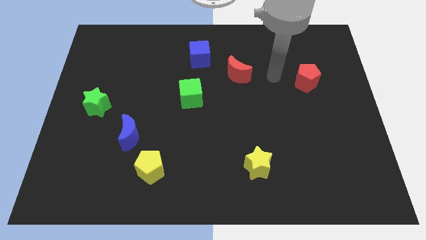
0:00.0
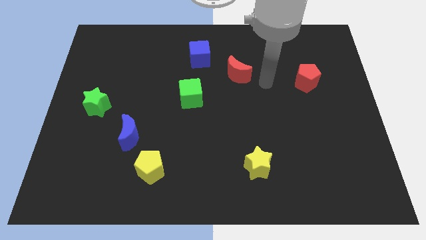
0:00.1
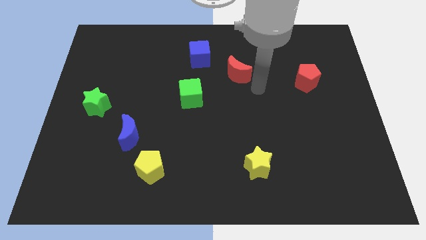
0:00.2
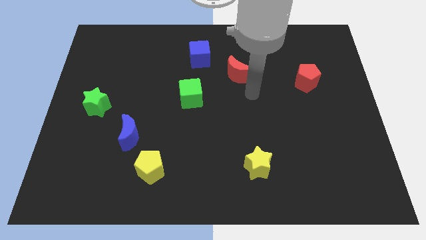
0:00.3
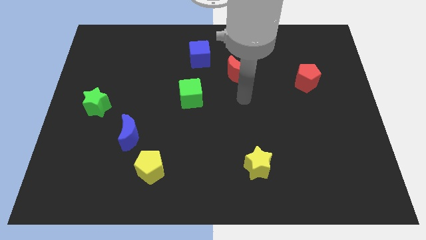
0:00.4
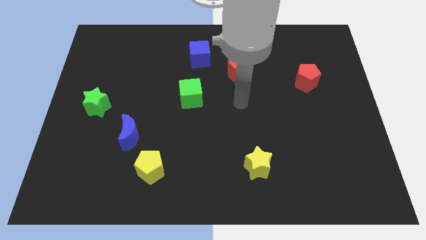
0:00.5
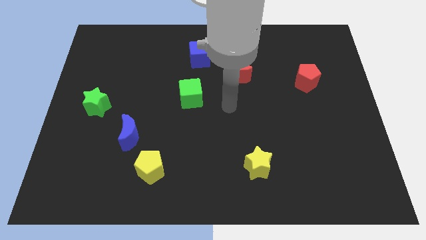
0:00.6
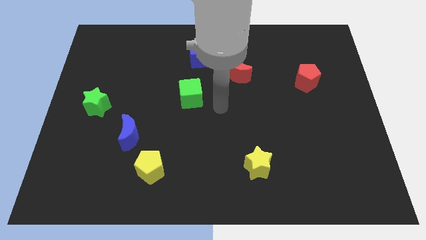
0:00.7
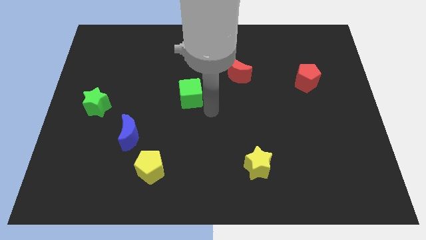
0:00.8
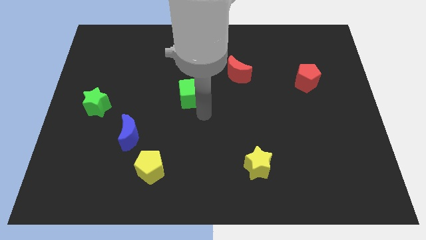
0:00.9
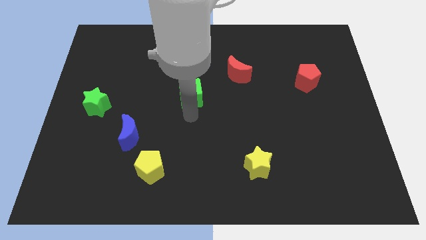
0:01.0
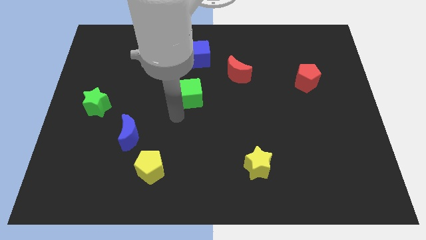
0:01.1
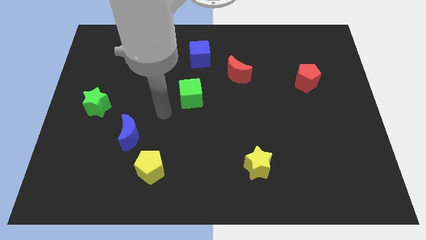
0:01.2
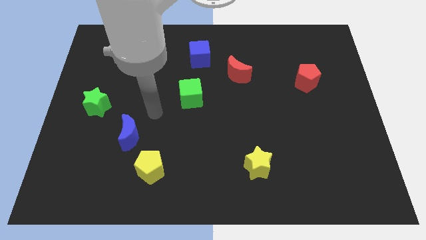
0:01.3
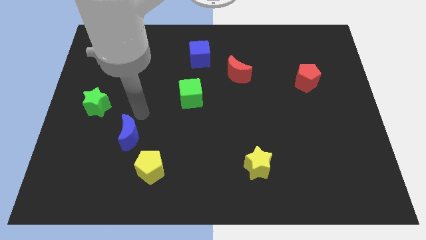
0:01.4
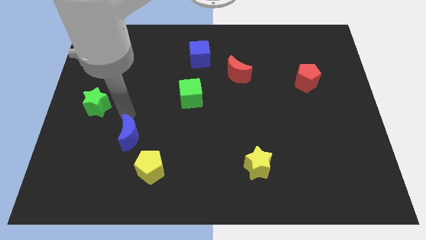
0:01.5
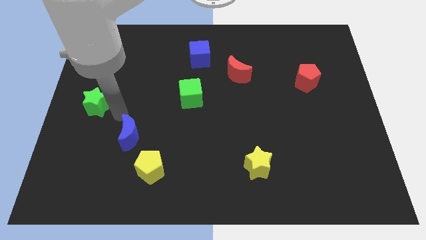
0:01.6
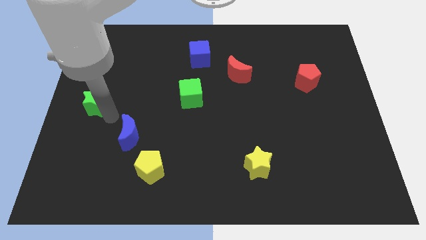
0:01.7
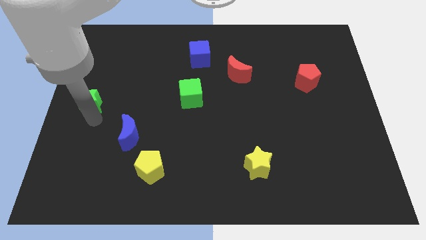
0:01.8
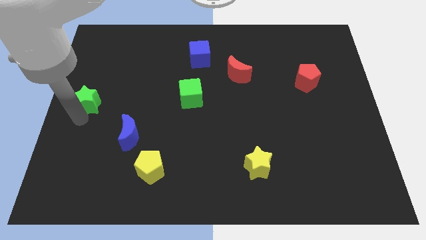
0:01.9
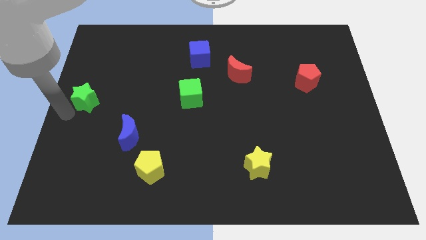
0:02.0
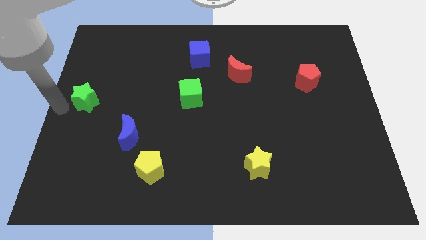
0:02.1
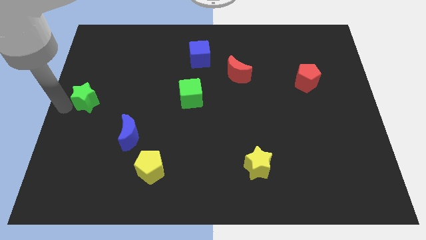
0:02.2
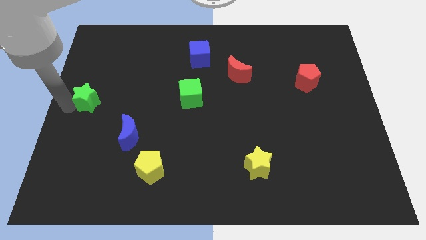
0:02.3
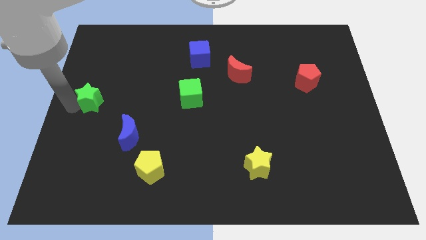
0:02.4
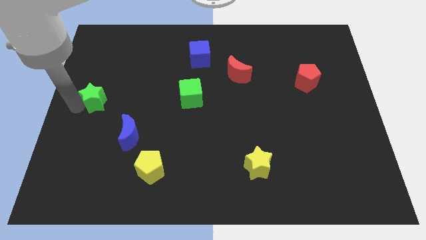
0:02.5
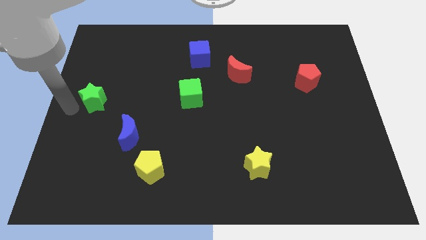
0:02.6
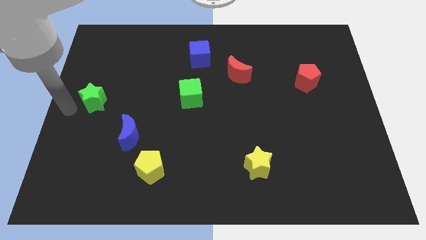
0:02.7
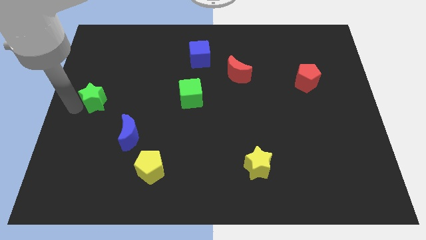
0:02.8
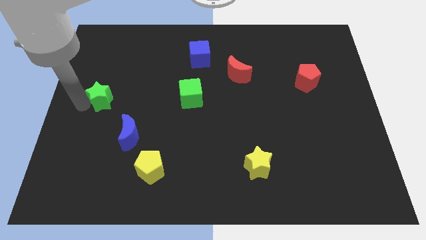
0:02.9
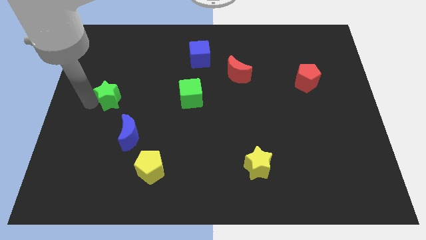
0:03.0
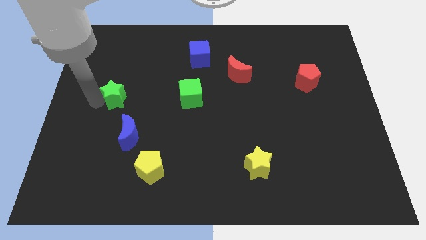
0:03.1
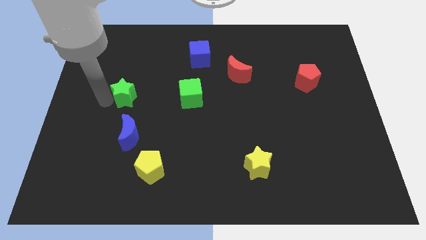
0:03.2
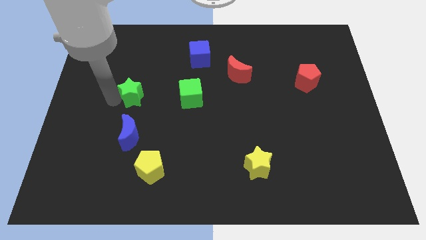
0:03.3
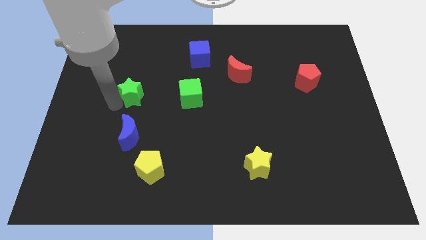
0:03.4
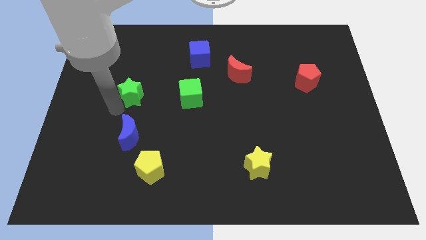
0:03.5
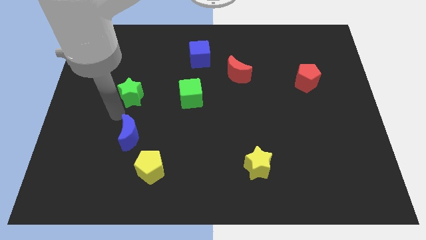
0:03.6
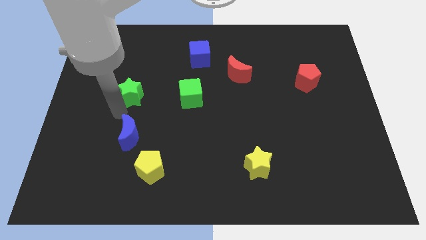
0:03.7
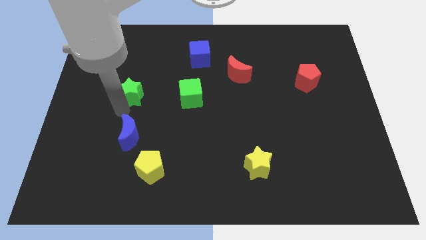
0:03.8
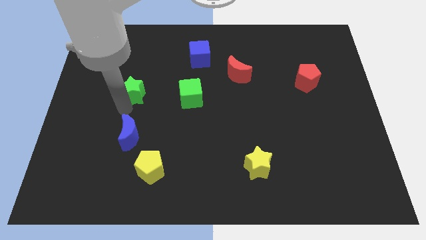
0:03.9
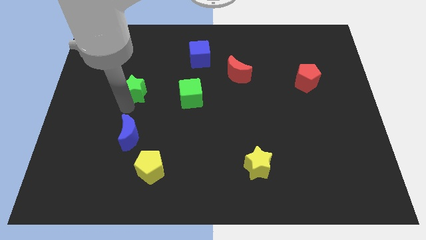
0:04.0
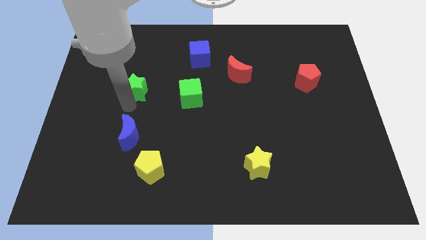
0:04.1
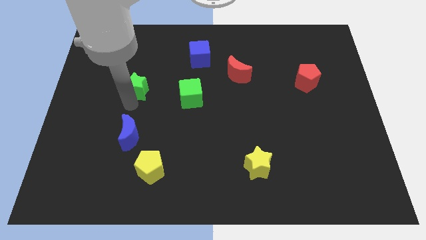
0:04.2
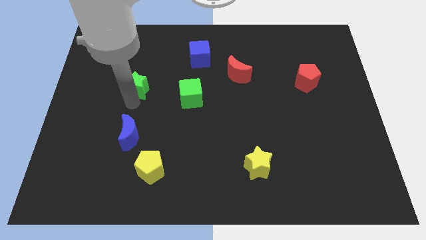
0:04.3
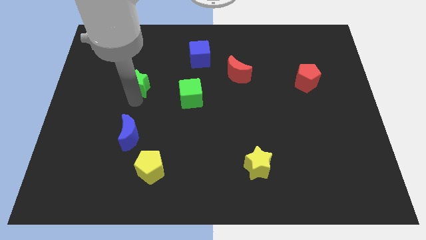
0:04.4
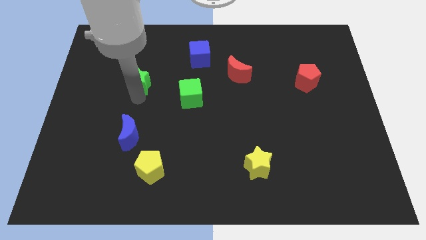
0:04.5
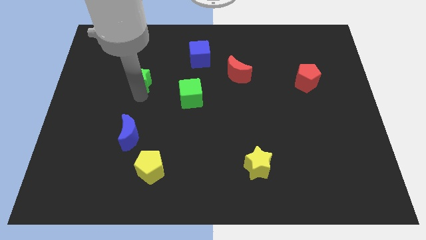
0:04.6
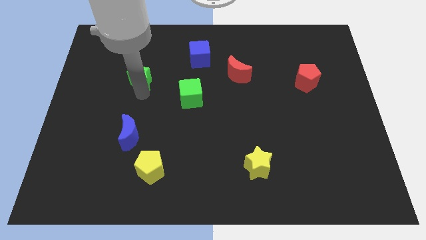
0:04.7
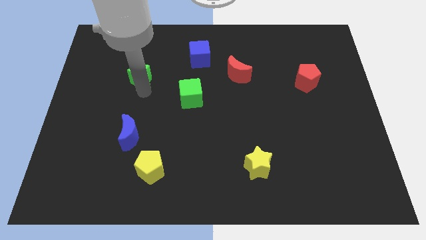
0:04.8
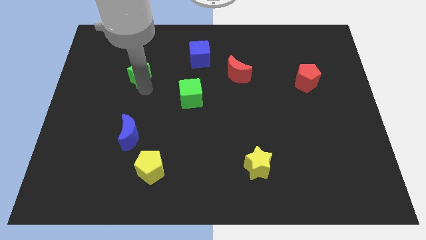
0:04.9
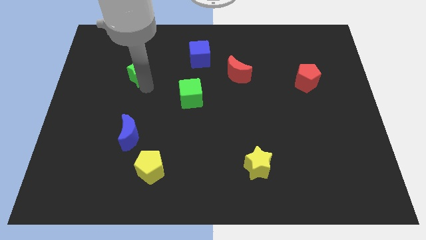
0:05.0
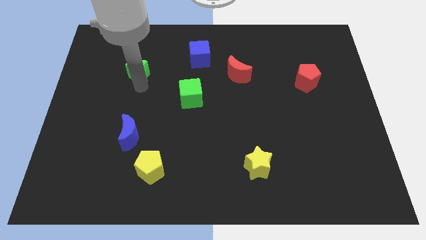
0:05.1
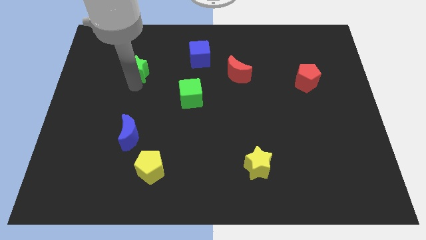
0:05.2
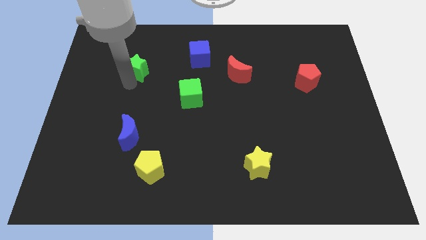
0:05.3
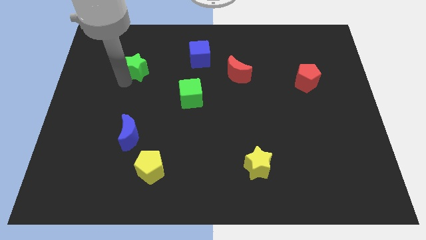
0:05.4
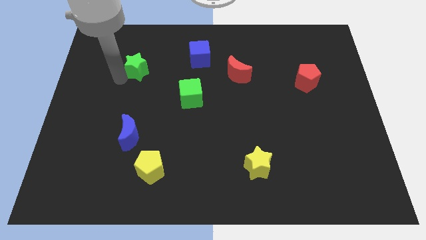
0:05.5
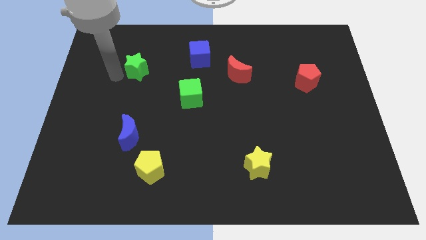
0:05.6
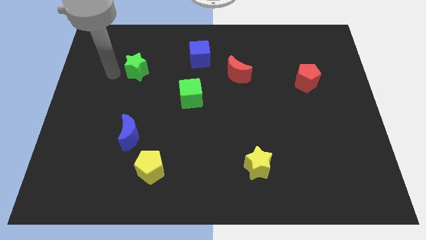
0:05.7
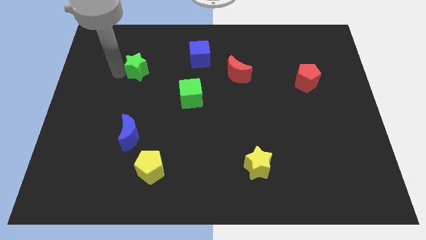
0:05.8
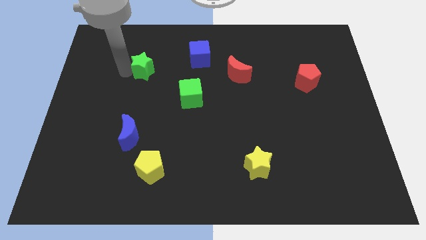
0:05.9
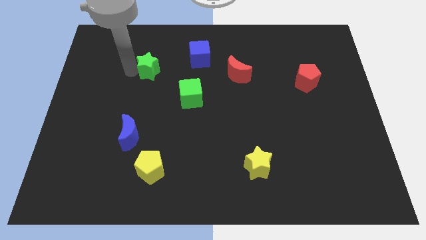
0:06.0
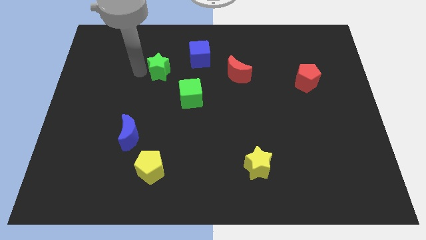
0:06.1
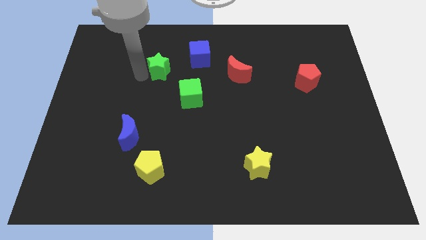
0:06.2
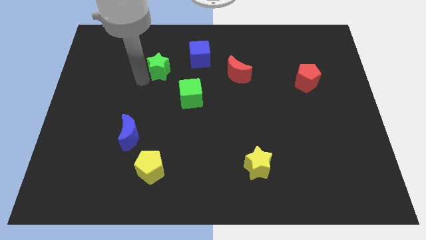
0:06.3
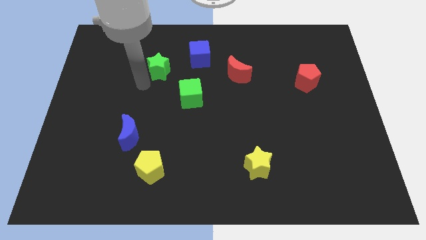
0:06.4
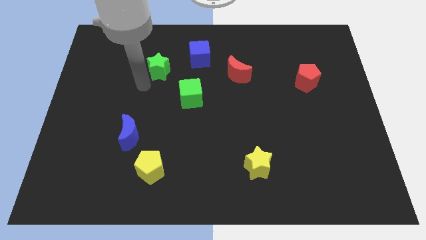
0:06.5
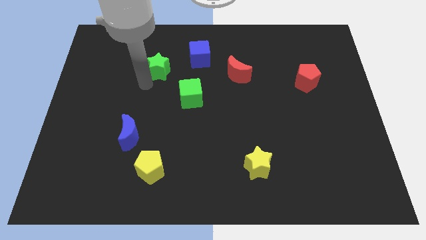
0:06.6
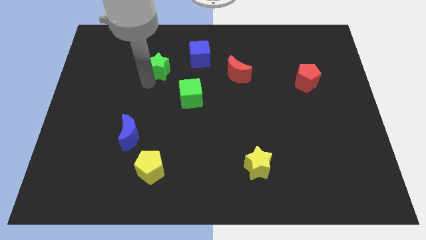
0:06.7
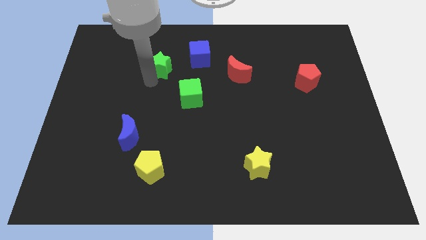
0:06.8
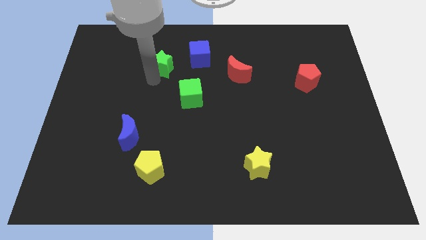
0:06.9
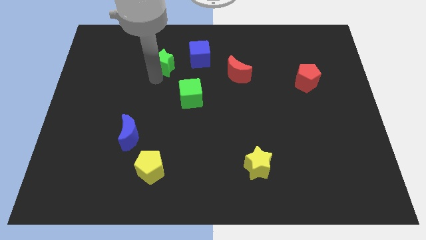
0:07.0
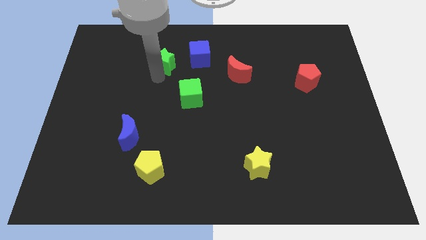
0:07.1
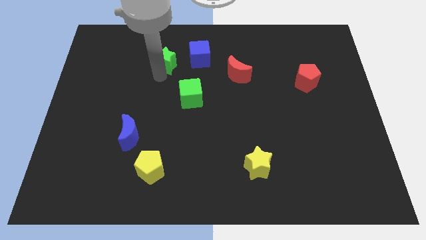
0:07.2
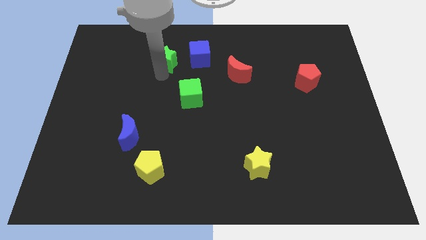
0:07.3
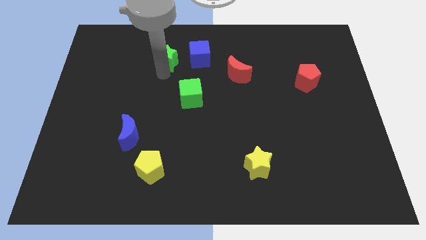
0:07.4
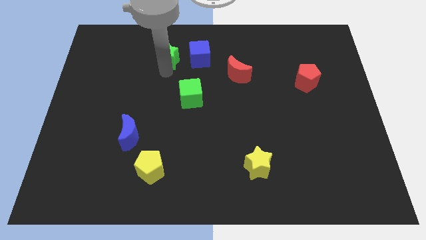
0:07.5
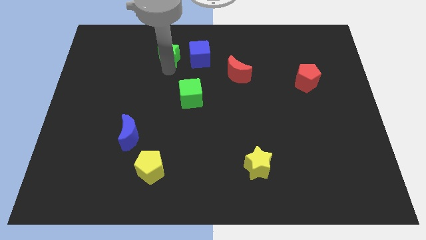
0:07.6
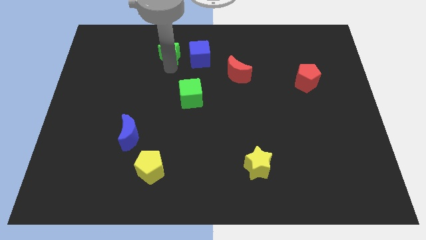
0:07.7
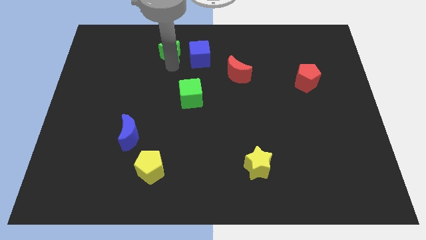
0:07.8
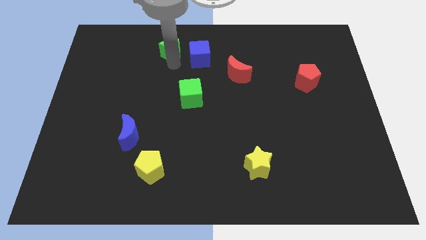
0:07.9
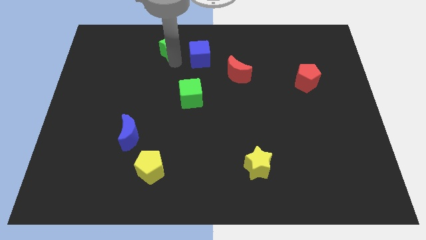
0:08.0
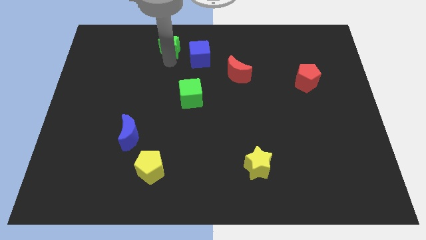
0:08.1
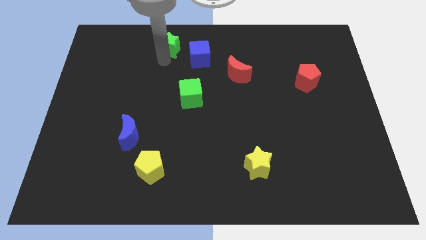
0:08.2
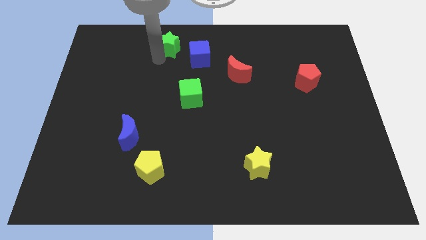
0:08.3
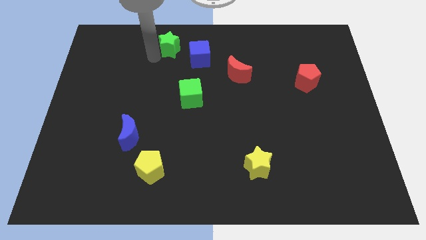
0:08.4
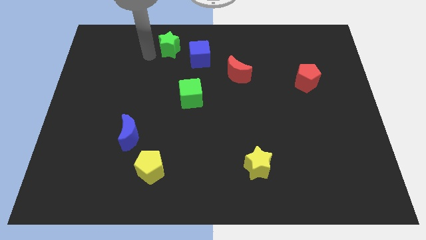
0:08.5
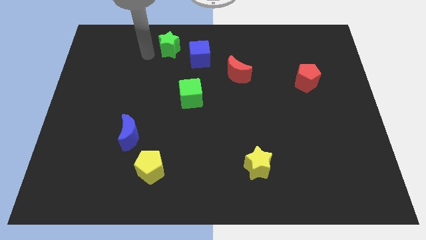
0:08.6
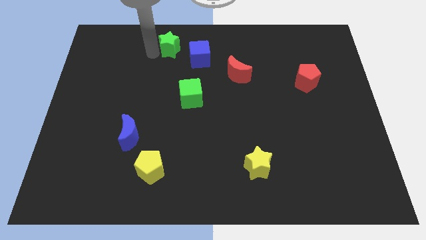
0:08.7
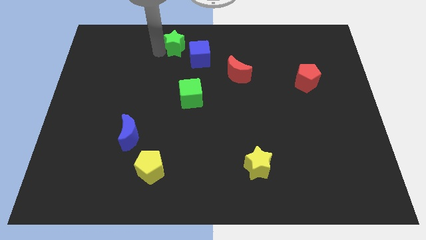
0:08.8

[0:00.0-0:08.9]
move the green star to the top
